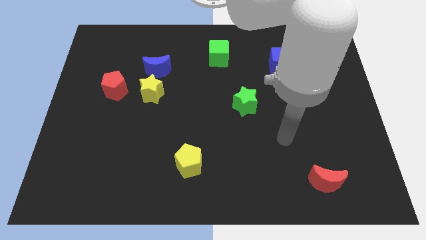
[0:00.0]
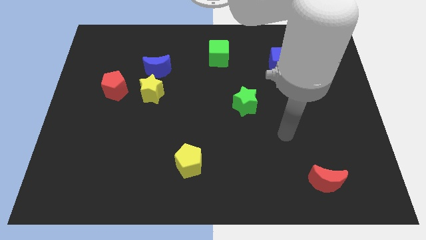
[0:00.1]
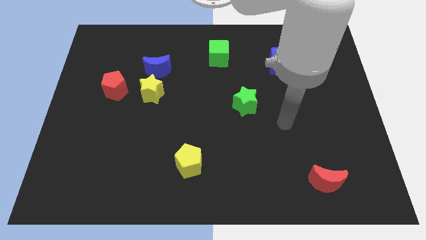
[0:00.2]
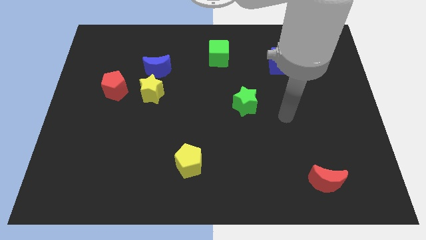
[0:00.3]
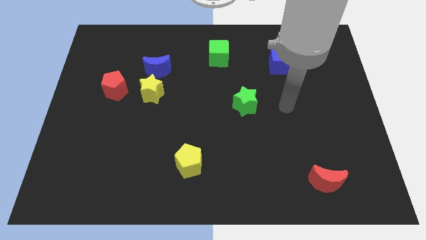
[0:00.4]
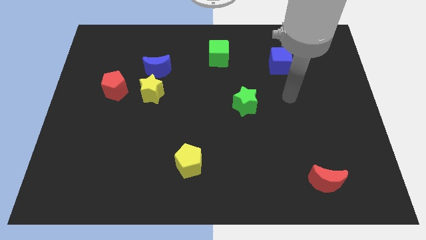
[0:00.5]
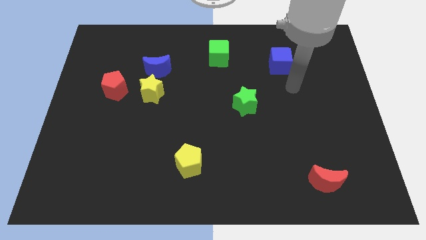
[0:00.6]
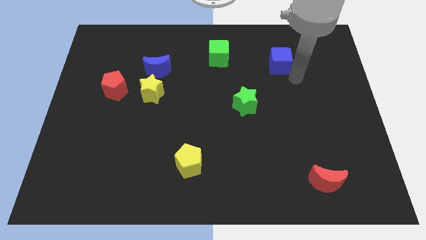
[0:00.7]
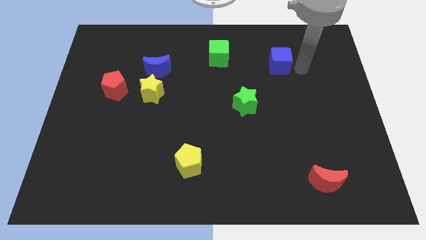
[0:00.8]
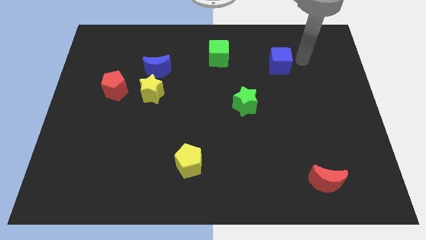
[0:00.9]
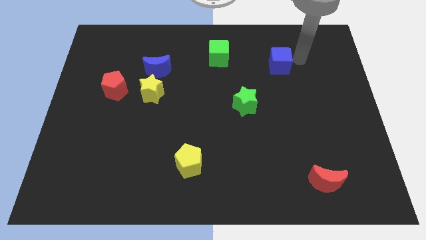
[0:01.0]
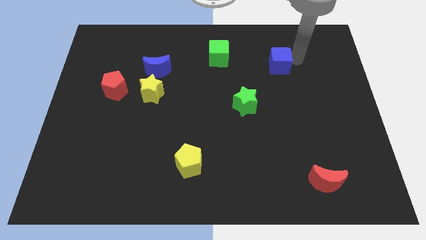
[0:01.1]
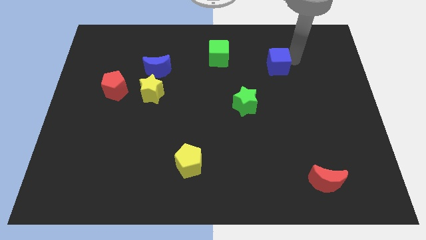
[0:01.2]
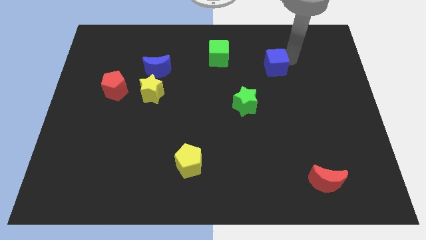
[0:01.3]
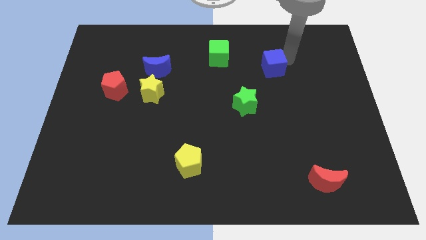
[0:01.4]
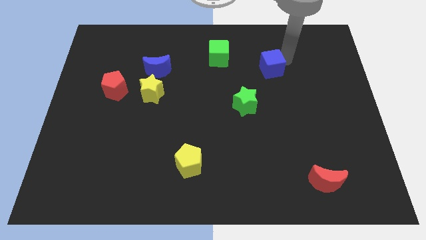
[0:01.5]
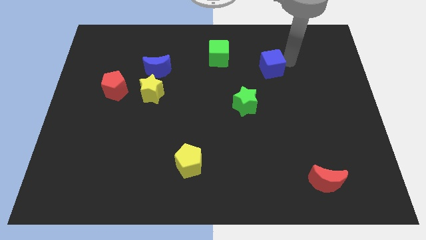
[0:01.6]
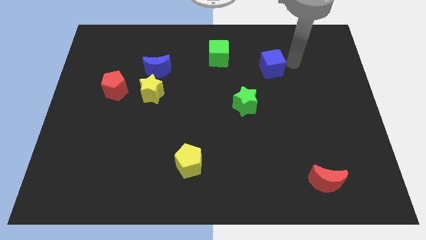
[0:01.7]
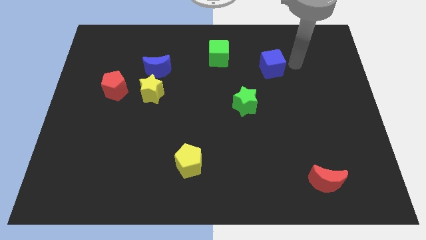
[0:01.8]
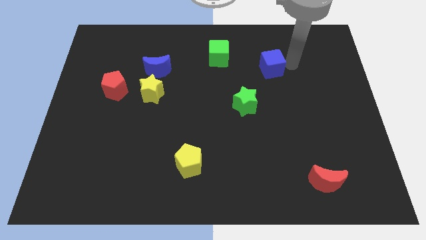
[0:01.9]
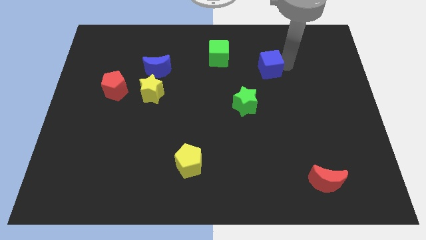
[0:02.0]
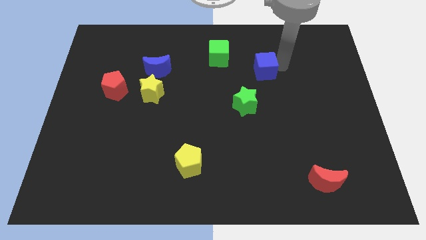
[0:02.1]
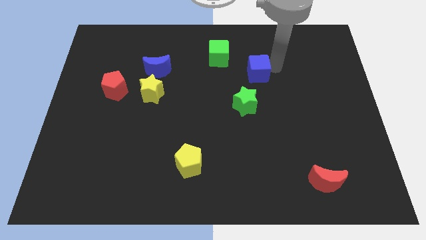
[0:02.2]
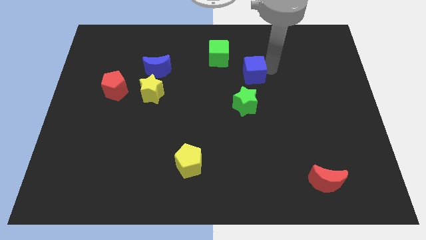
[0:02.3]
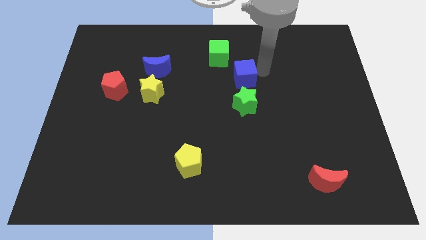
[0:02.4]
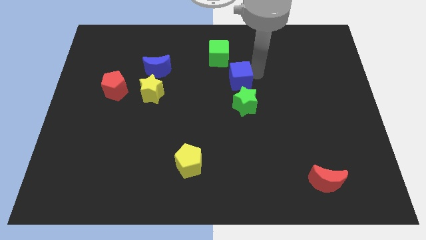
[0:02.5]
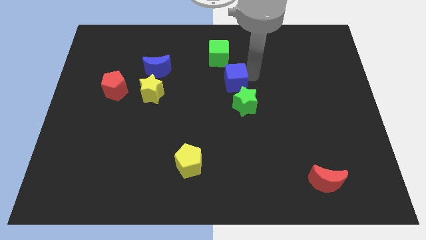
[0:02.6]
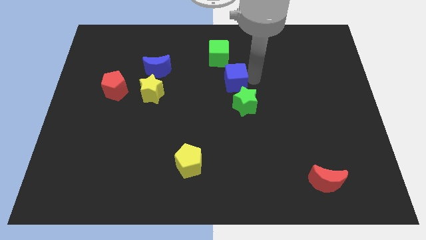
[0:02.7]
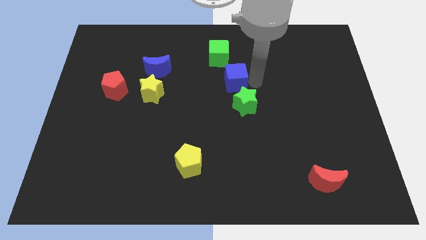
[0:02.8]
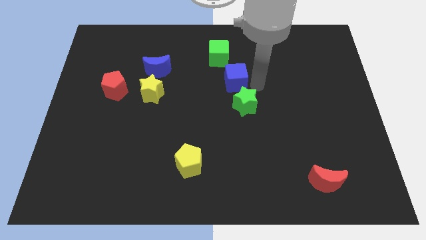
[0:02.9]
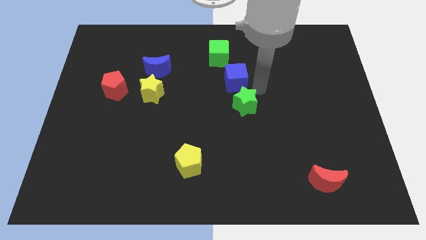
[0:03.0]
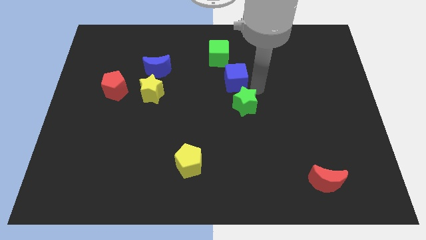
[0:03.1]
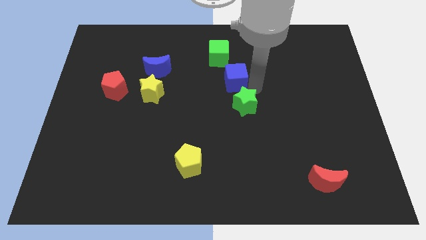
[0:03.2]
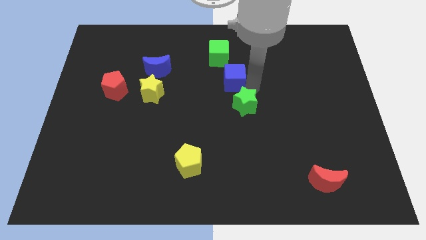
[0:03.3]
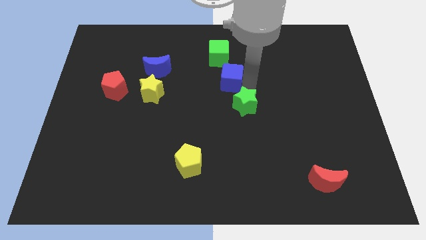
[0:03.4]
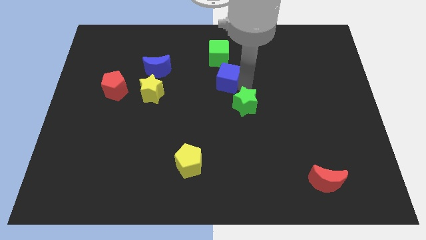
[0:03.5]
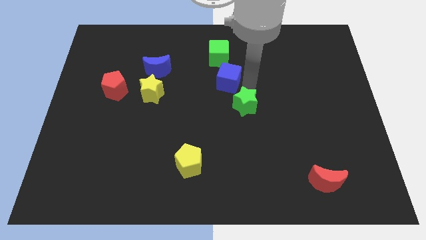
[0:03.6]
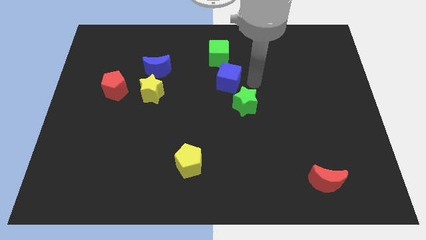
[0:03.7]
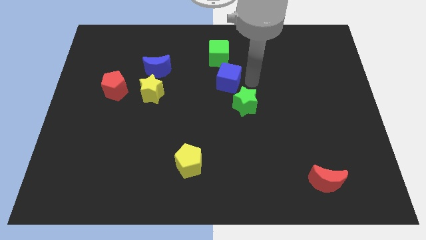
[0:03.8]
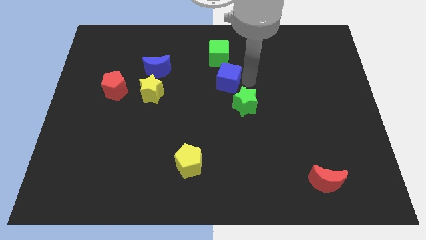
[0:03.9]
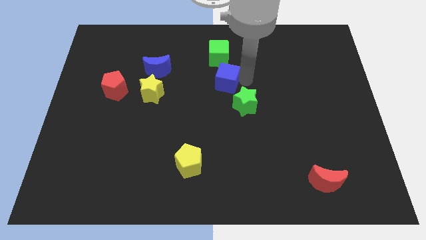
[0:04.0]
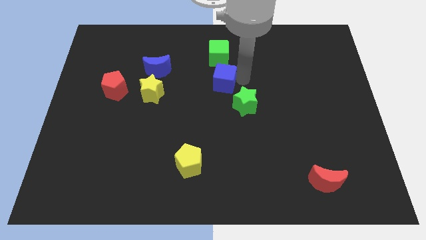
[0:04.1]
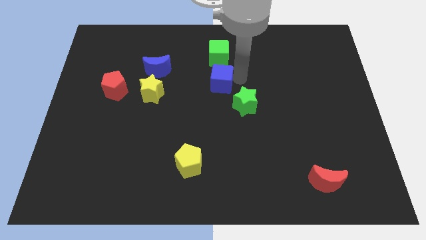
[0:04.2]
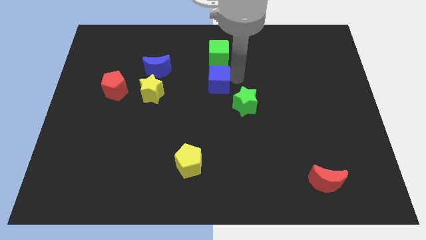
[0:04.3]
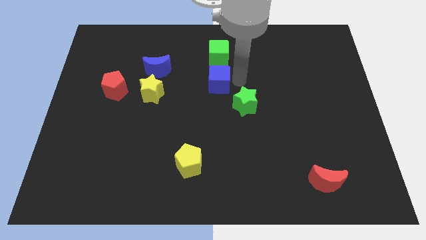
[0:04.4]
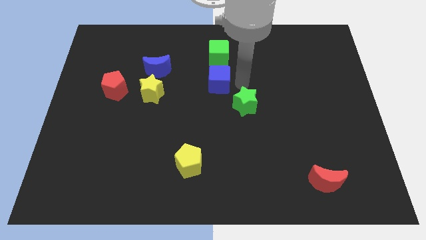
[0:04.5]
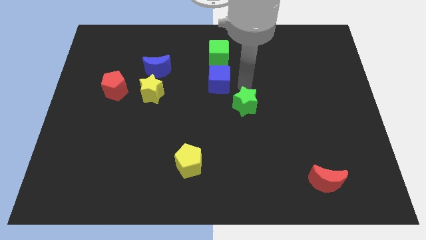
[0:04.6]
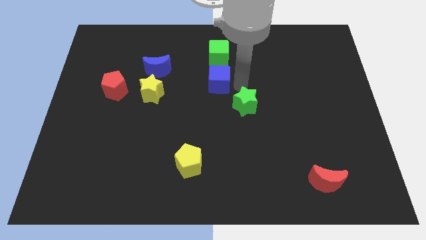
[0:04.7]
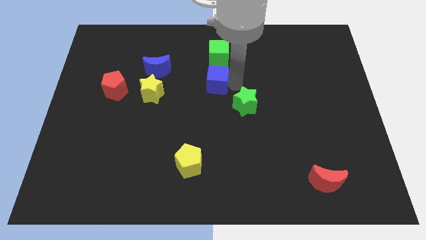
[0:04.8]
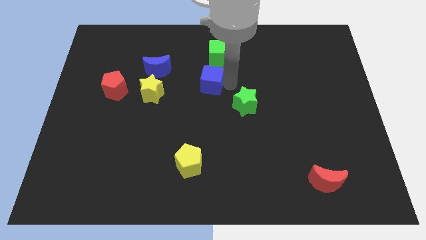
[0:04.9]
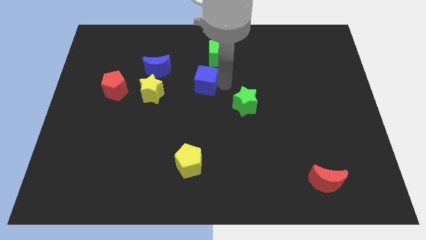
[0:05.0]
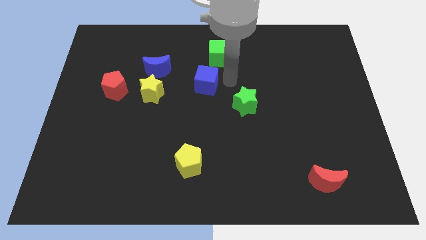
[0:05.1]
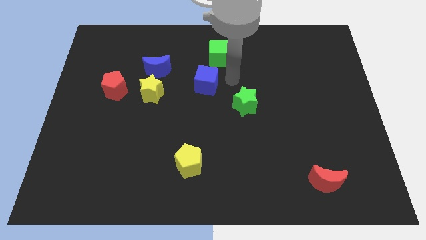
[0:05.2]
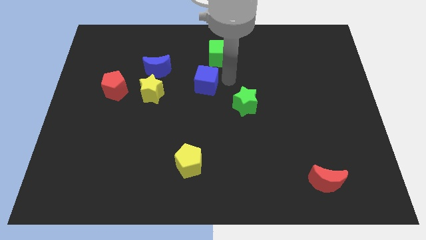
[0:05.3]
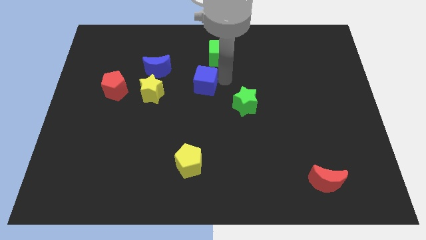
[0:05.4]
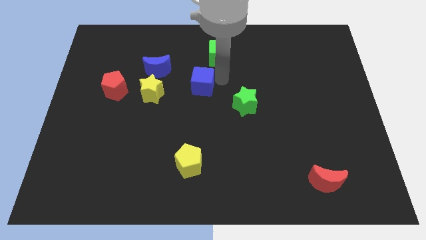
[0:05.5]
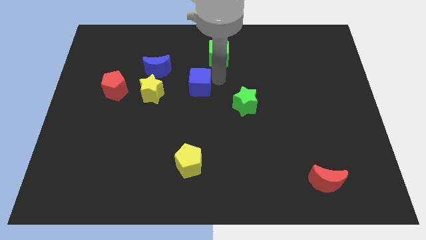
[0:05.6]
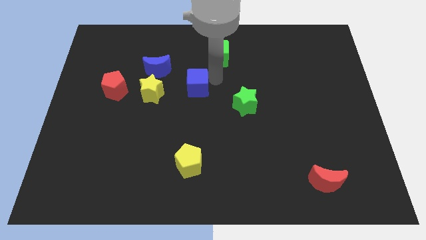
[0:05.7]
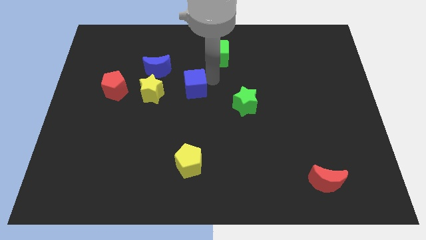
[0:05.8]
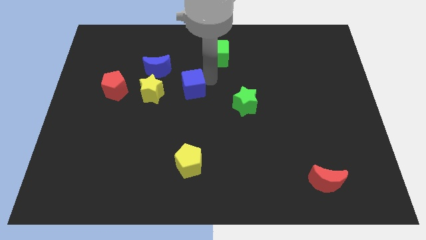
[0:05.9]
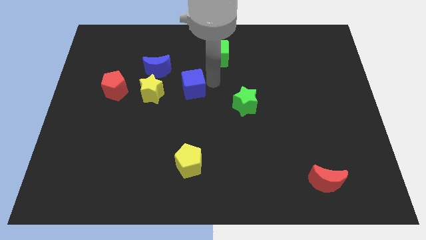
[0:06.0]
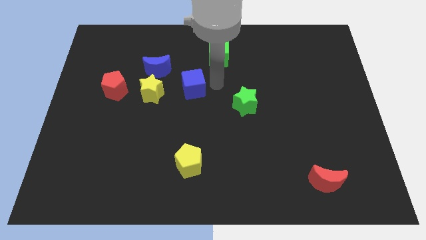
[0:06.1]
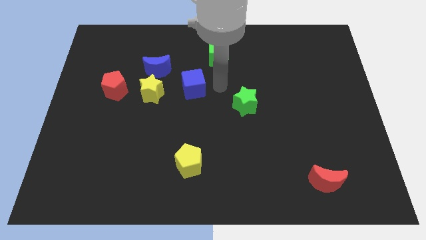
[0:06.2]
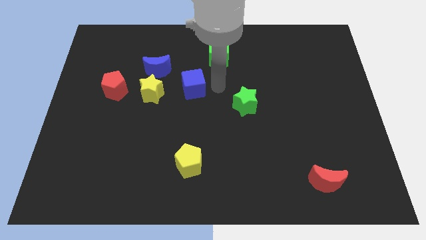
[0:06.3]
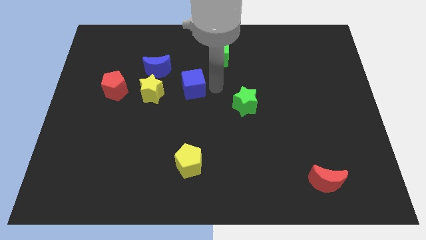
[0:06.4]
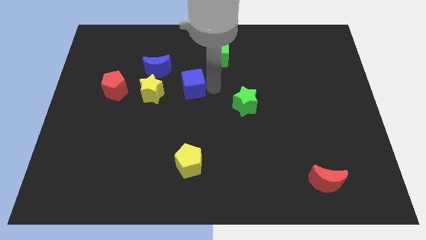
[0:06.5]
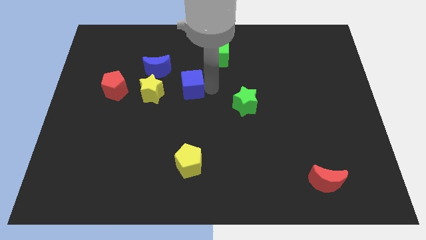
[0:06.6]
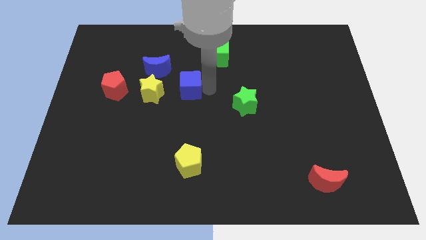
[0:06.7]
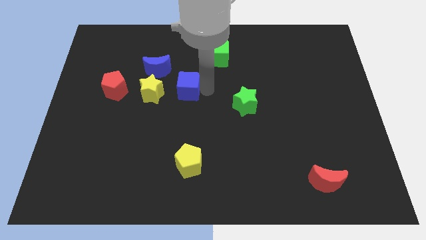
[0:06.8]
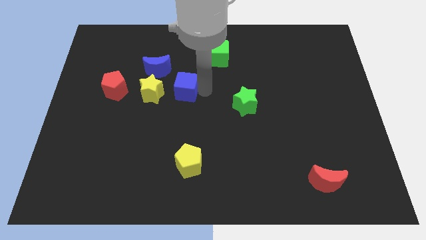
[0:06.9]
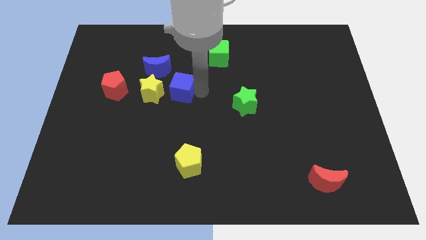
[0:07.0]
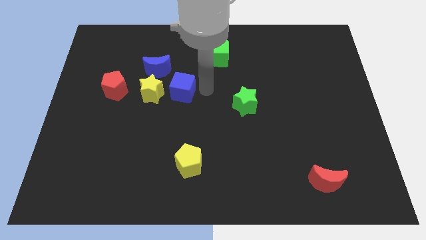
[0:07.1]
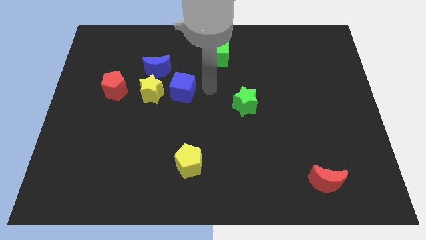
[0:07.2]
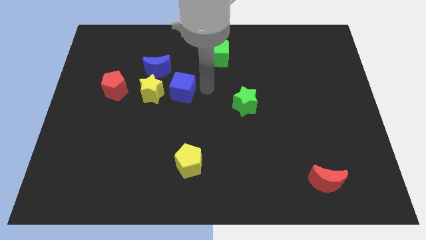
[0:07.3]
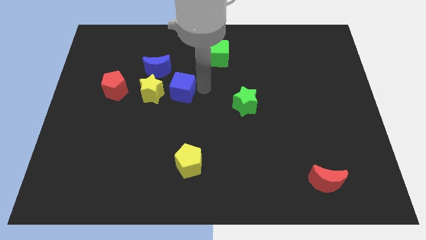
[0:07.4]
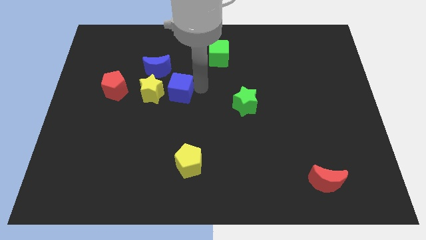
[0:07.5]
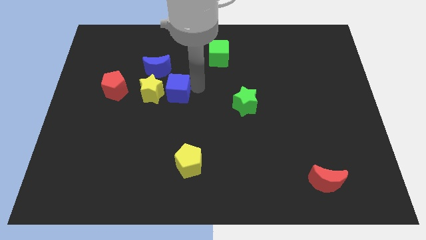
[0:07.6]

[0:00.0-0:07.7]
move the blue cube next to the yellow star
